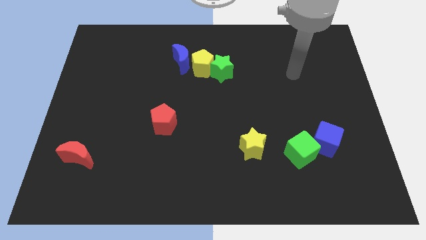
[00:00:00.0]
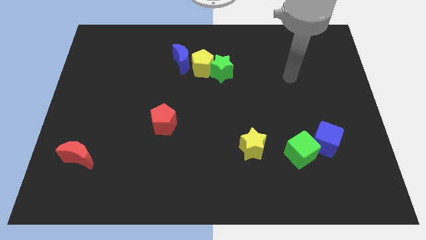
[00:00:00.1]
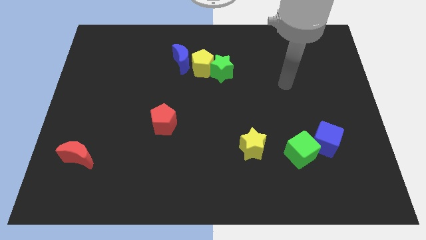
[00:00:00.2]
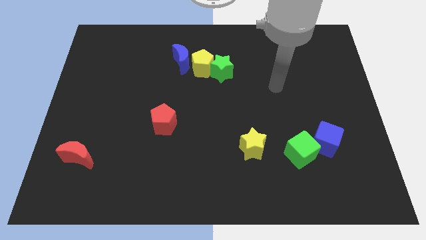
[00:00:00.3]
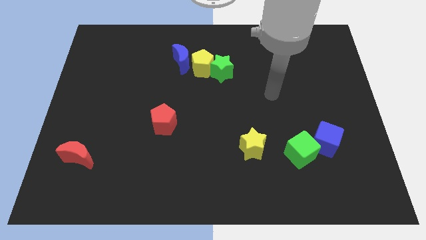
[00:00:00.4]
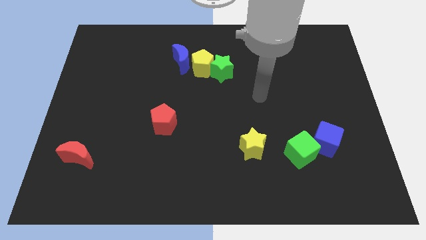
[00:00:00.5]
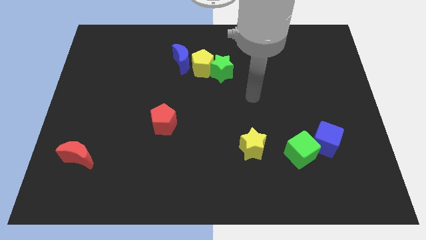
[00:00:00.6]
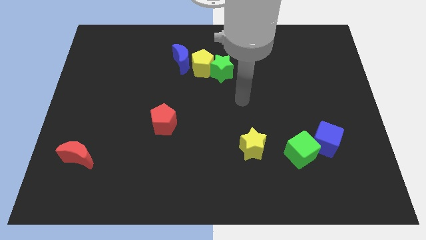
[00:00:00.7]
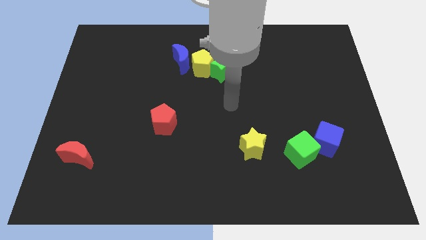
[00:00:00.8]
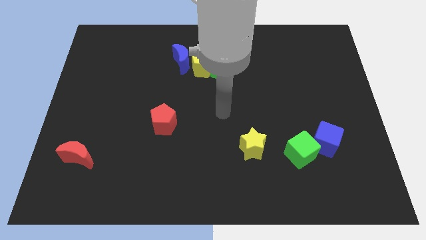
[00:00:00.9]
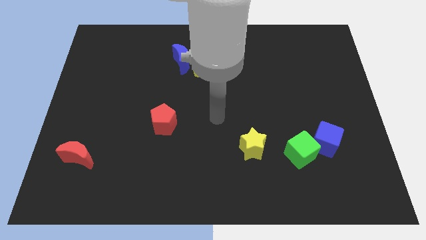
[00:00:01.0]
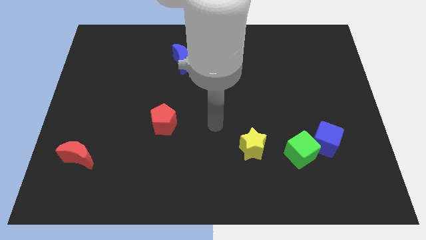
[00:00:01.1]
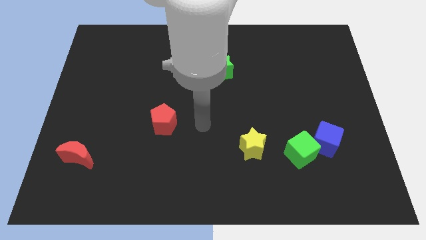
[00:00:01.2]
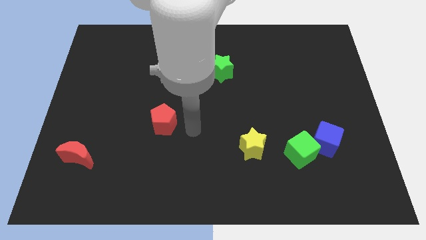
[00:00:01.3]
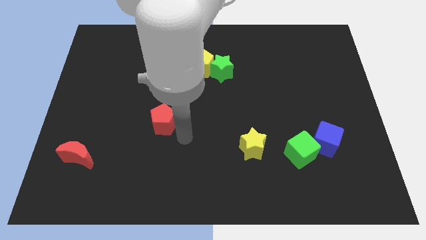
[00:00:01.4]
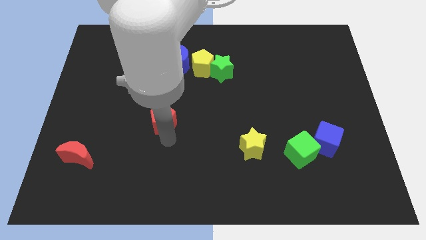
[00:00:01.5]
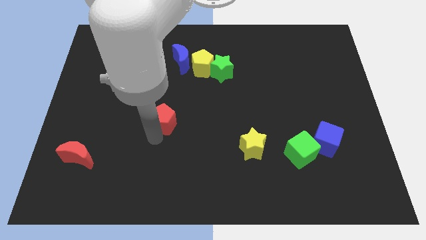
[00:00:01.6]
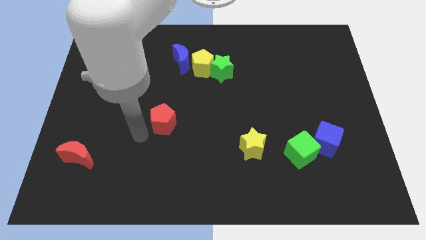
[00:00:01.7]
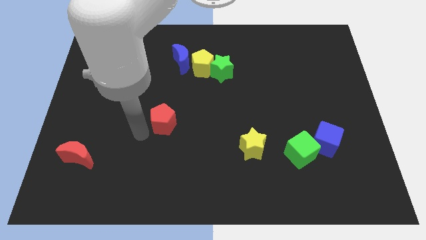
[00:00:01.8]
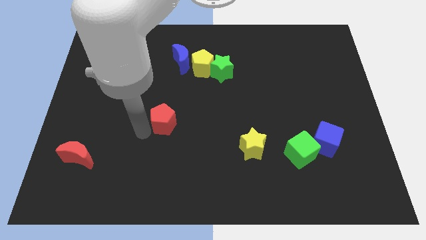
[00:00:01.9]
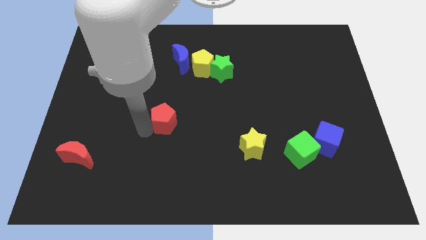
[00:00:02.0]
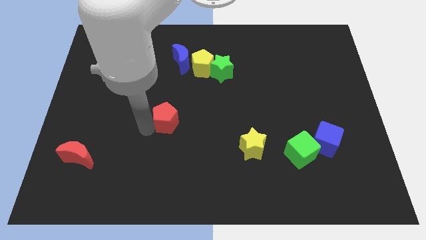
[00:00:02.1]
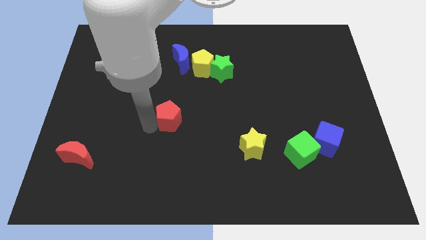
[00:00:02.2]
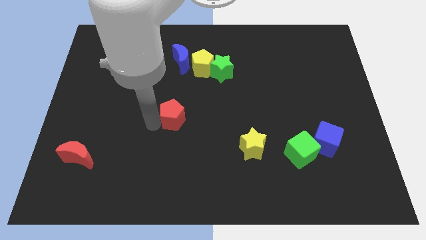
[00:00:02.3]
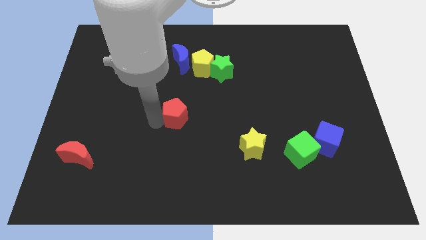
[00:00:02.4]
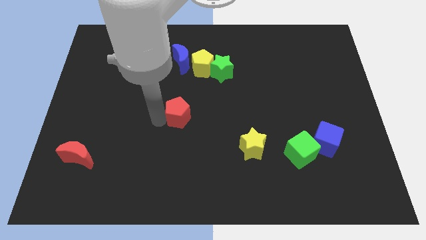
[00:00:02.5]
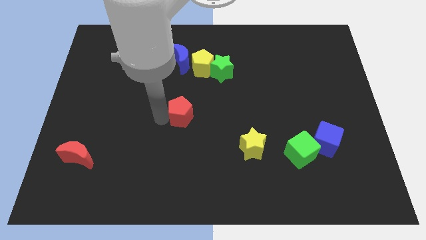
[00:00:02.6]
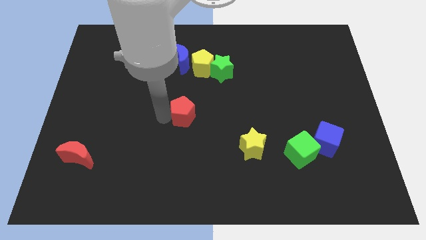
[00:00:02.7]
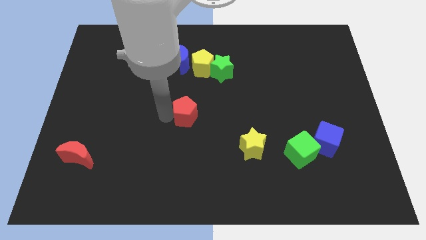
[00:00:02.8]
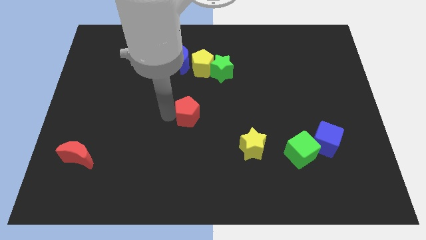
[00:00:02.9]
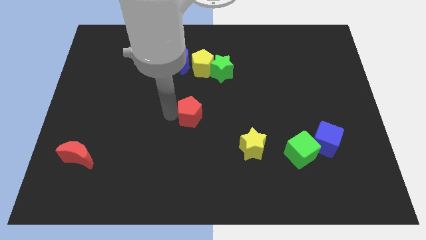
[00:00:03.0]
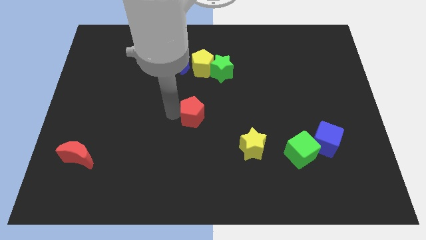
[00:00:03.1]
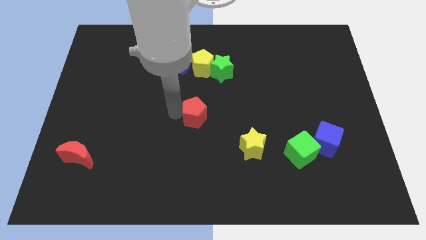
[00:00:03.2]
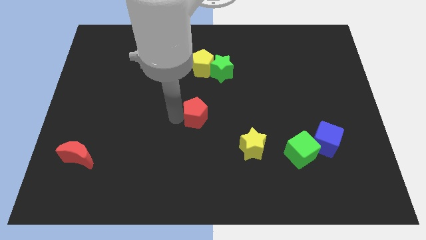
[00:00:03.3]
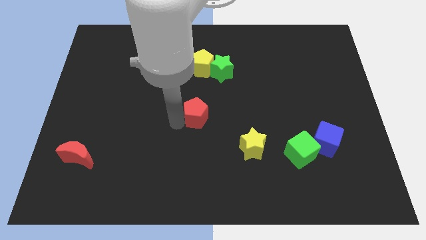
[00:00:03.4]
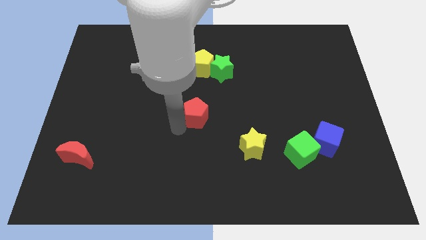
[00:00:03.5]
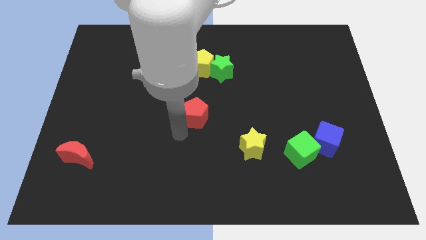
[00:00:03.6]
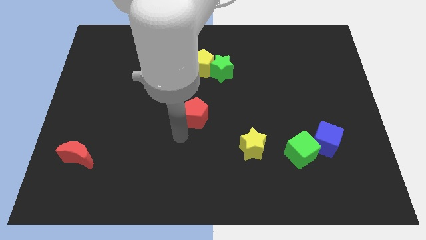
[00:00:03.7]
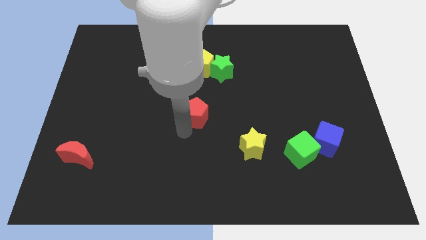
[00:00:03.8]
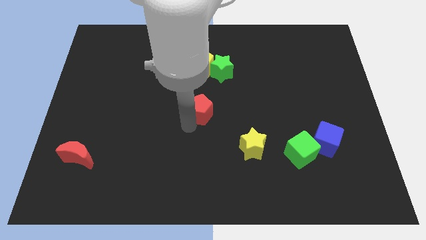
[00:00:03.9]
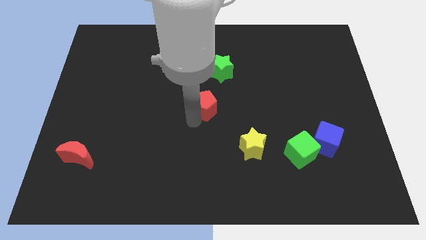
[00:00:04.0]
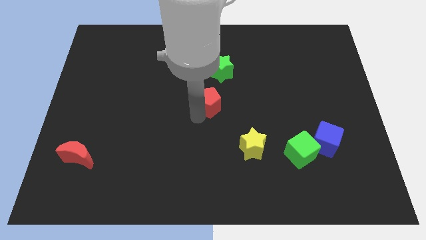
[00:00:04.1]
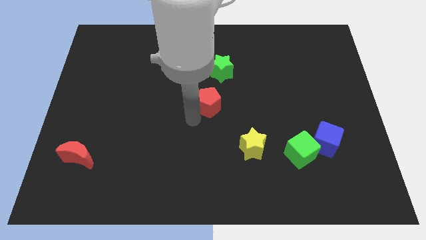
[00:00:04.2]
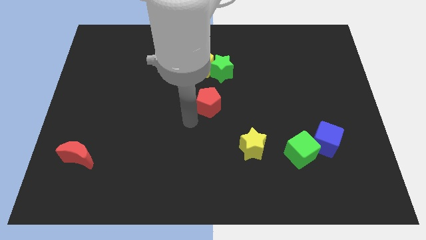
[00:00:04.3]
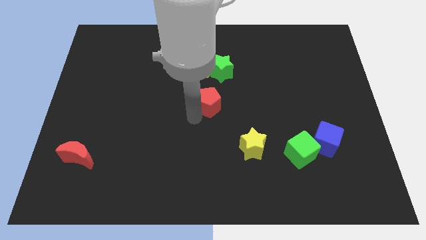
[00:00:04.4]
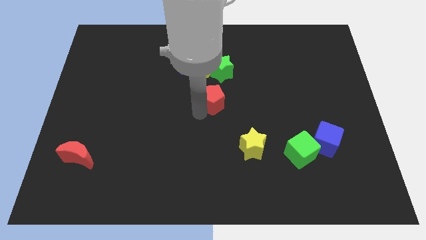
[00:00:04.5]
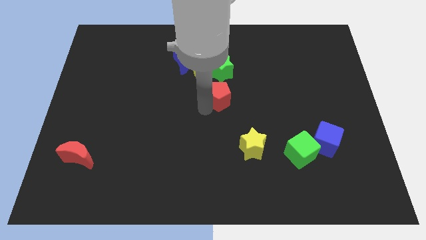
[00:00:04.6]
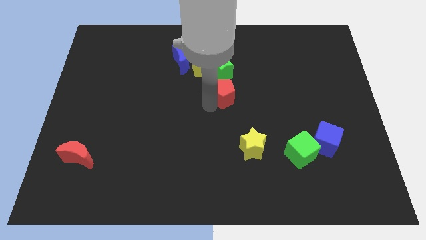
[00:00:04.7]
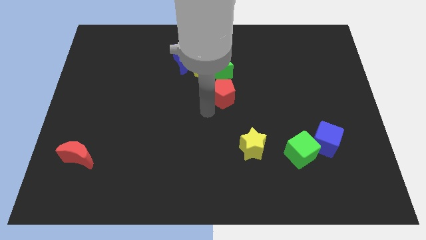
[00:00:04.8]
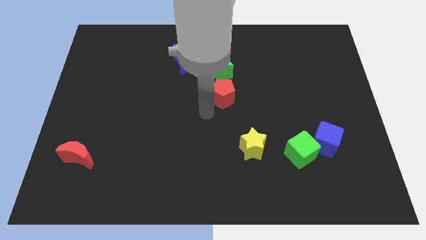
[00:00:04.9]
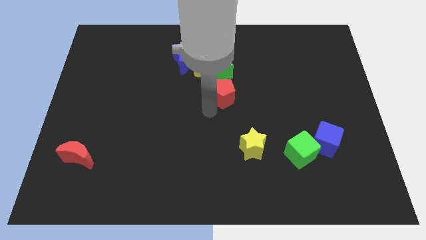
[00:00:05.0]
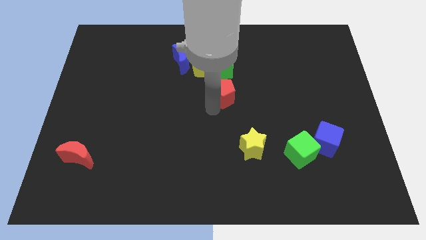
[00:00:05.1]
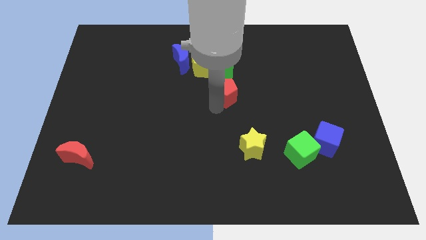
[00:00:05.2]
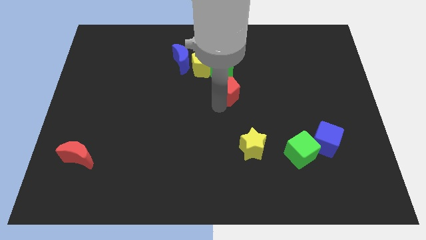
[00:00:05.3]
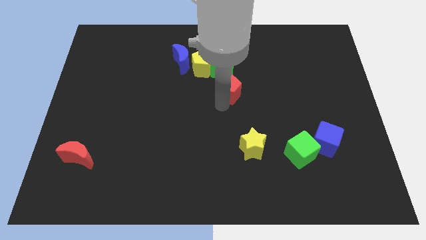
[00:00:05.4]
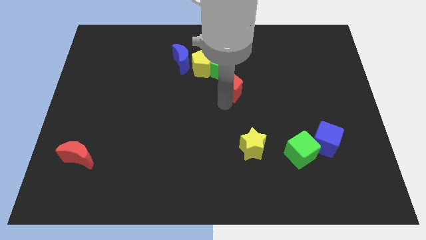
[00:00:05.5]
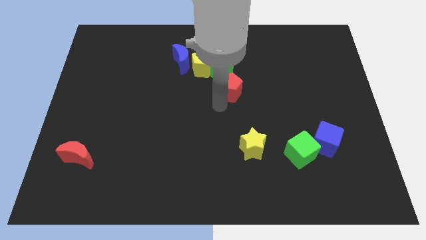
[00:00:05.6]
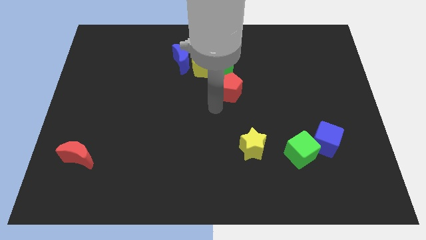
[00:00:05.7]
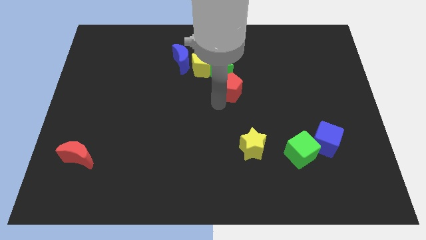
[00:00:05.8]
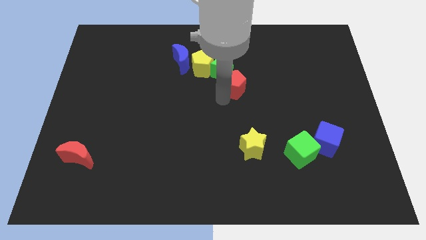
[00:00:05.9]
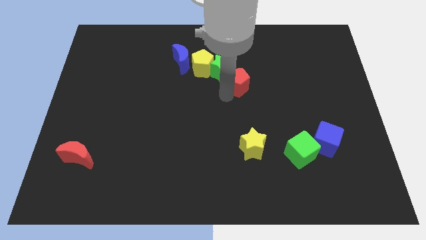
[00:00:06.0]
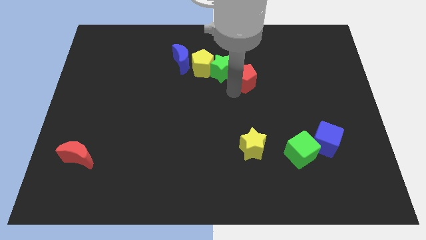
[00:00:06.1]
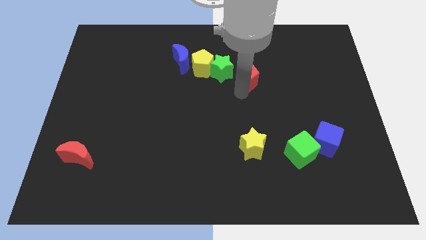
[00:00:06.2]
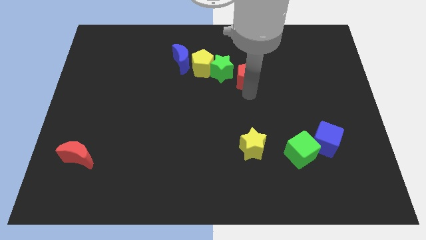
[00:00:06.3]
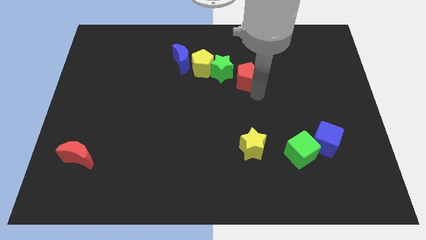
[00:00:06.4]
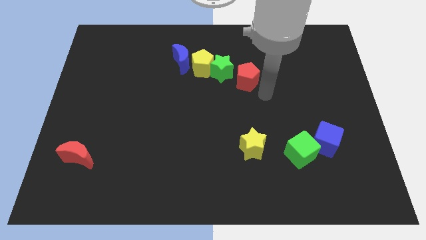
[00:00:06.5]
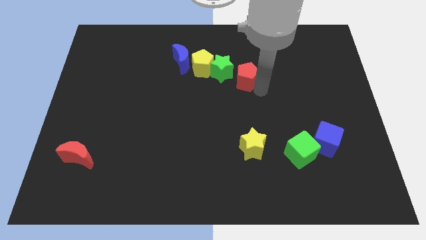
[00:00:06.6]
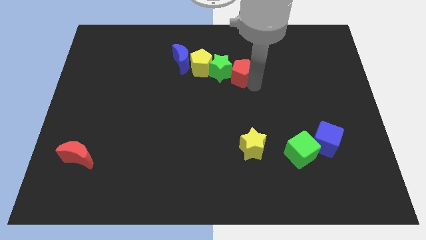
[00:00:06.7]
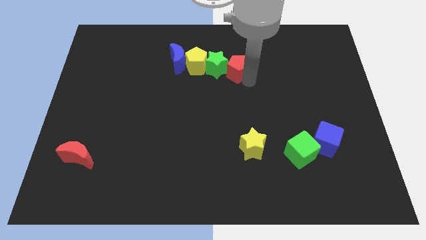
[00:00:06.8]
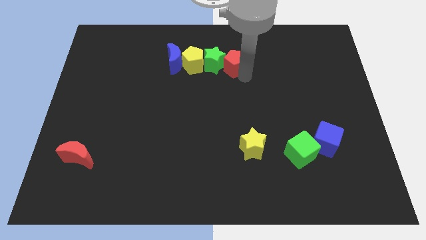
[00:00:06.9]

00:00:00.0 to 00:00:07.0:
put the red pentagon to the right side of the blue moon

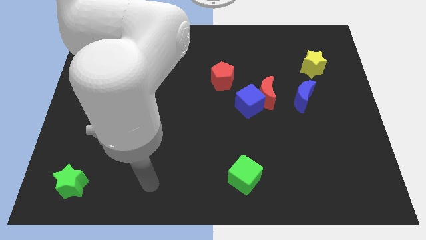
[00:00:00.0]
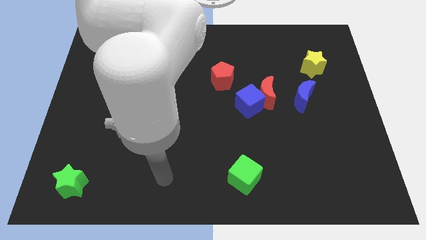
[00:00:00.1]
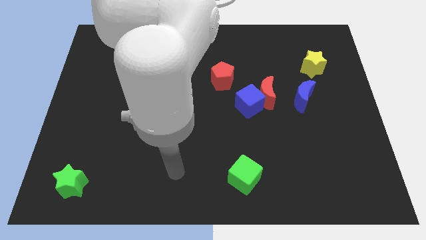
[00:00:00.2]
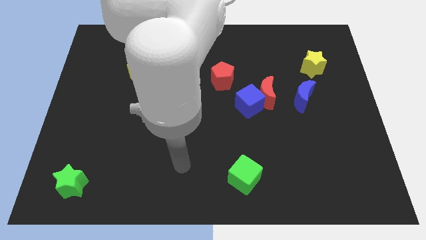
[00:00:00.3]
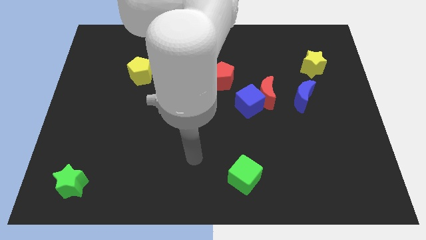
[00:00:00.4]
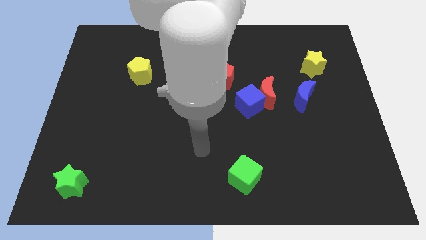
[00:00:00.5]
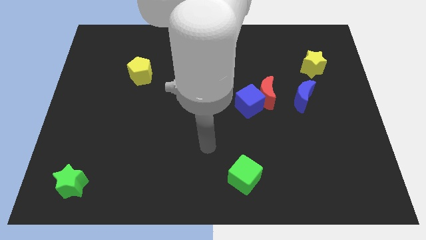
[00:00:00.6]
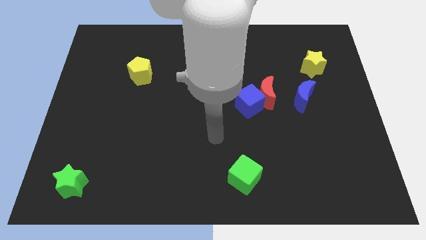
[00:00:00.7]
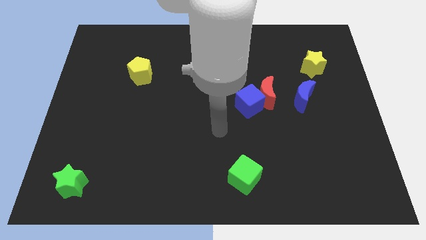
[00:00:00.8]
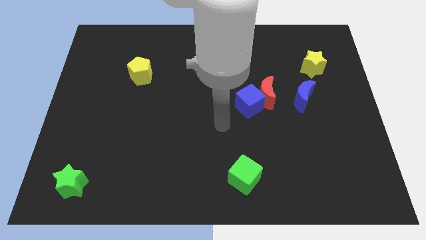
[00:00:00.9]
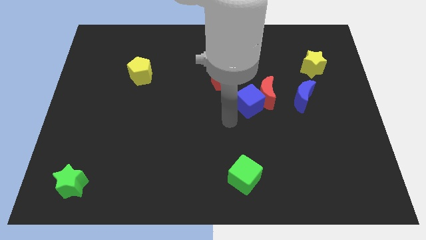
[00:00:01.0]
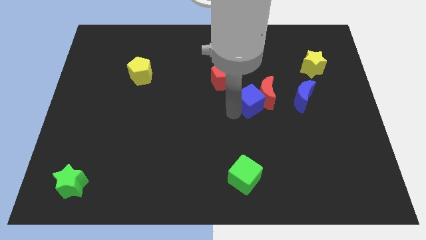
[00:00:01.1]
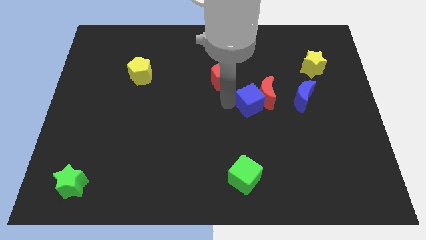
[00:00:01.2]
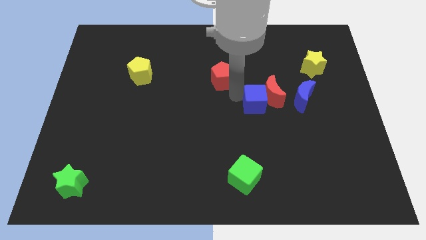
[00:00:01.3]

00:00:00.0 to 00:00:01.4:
move the red moon to the bottom right of the blue cube
